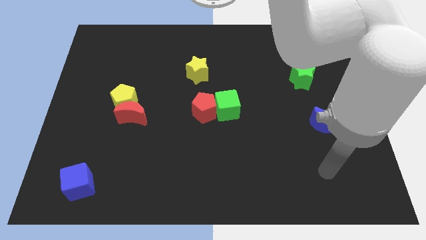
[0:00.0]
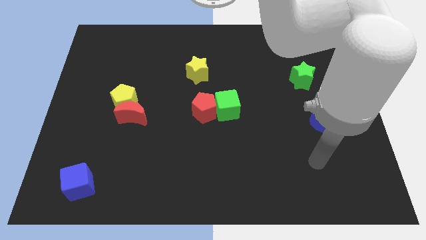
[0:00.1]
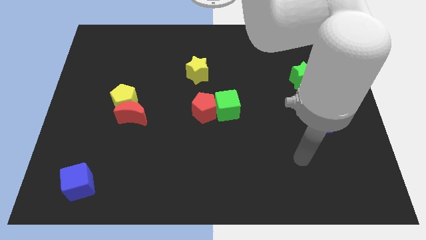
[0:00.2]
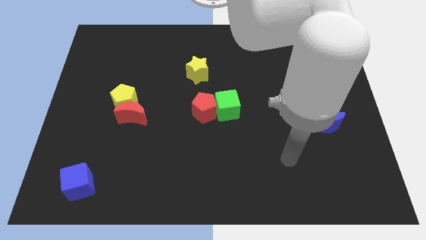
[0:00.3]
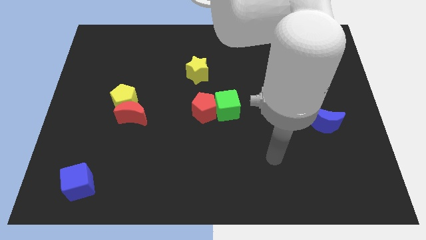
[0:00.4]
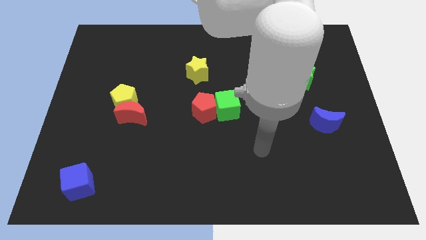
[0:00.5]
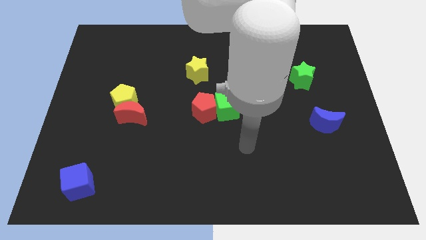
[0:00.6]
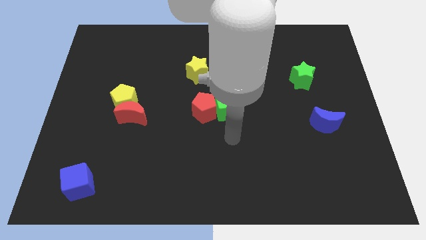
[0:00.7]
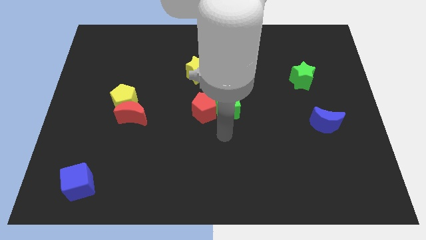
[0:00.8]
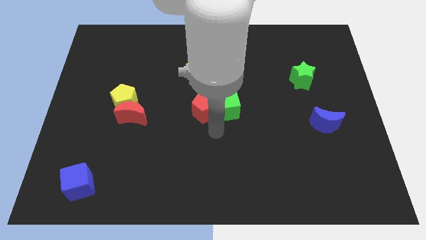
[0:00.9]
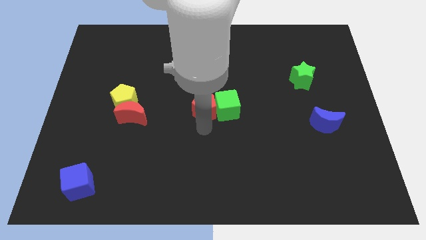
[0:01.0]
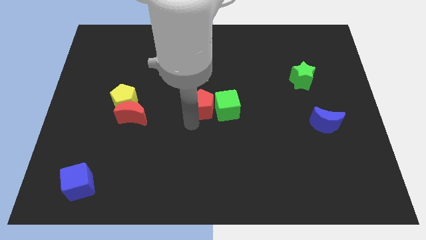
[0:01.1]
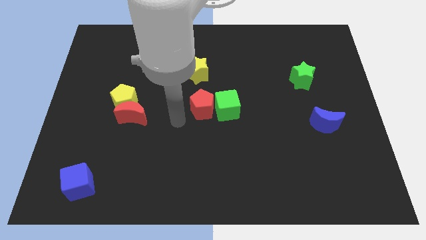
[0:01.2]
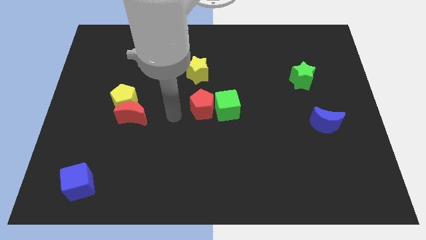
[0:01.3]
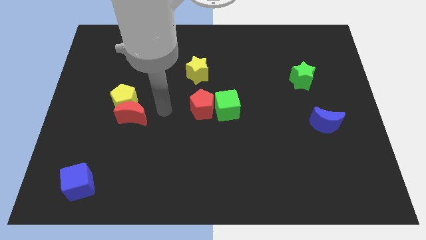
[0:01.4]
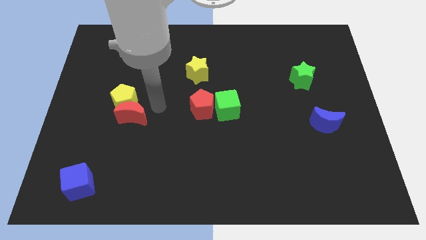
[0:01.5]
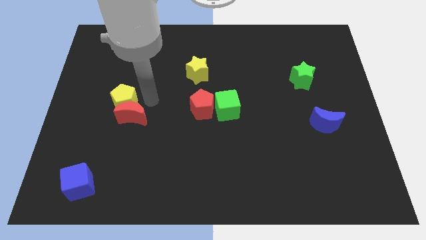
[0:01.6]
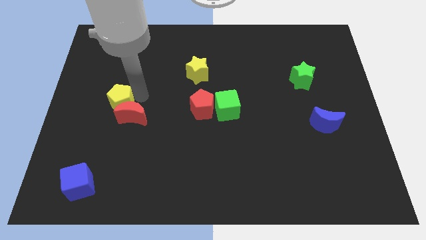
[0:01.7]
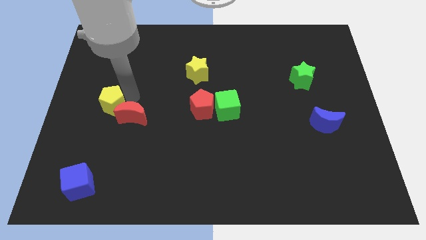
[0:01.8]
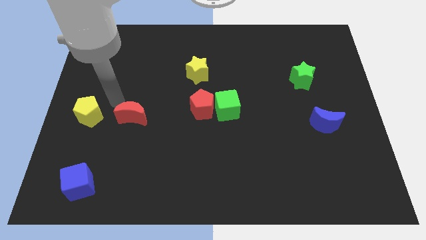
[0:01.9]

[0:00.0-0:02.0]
pull the red moon apart from the yellow pentagon

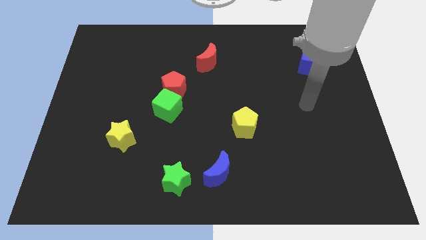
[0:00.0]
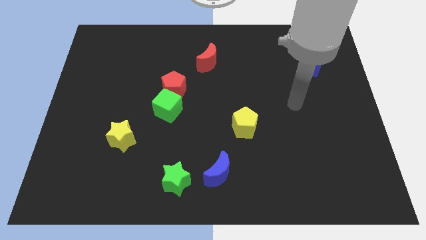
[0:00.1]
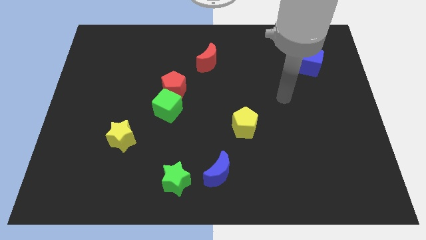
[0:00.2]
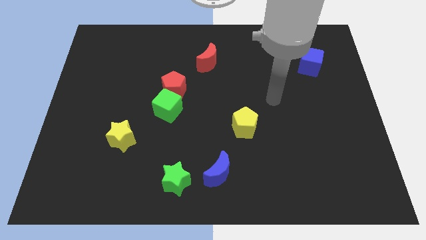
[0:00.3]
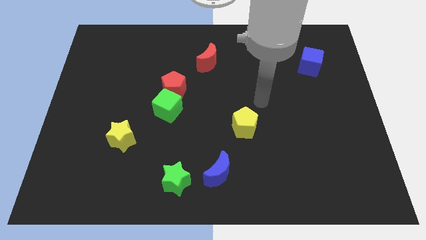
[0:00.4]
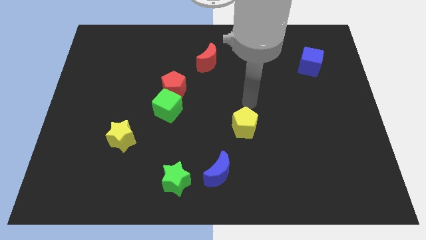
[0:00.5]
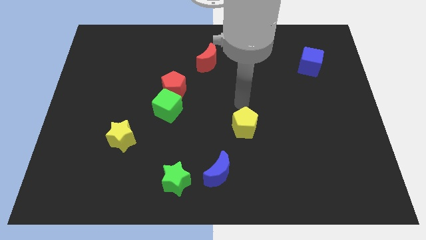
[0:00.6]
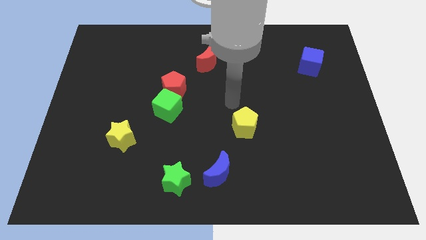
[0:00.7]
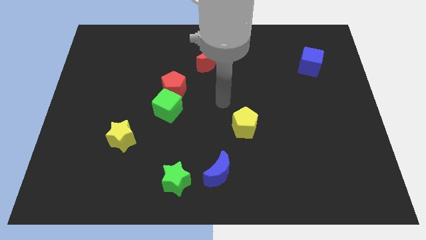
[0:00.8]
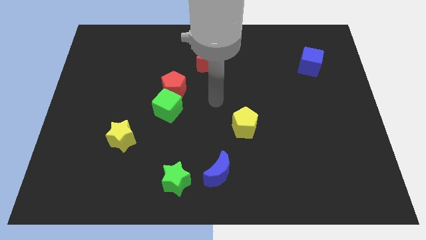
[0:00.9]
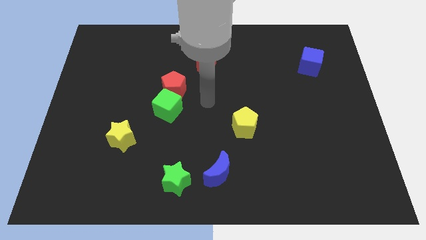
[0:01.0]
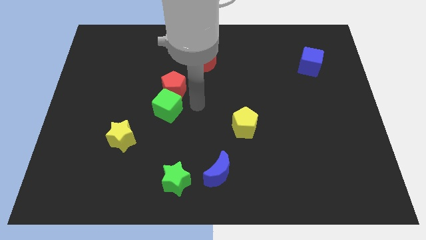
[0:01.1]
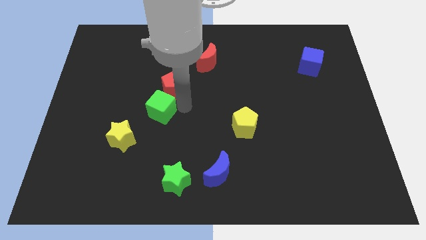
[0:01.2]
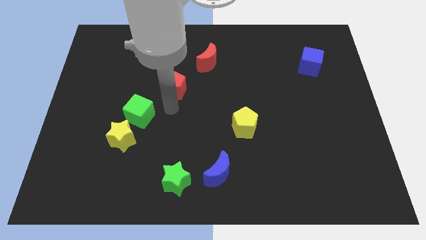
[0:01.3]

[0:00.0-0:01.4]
pull the red pentagon apart from the green cube

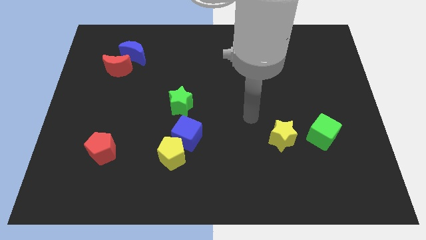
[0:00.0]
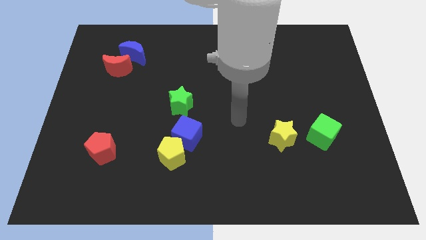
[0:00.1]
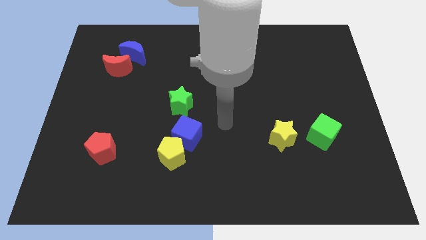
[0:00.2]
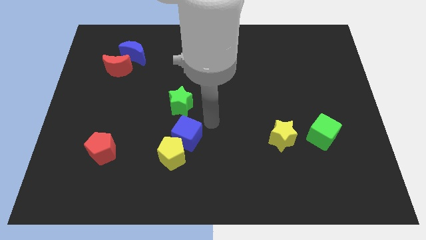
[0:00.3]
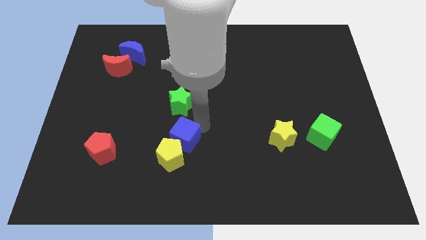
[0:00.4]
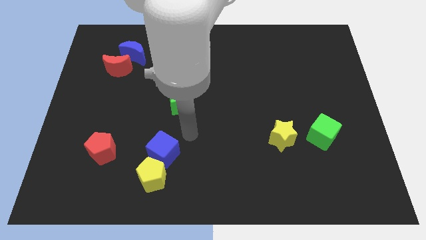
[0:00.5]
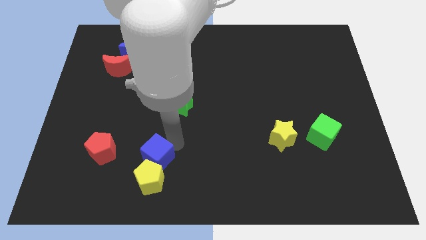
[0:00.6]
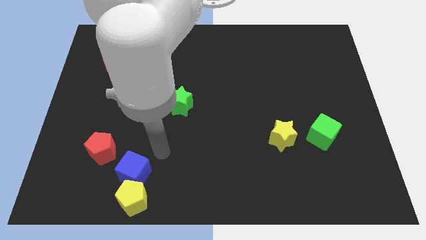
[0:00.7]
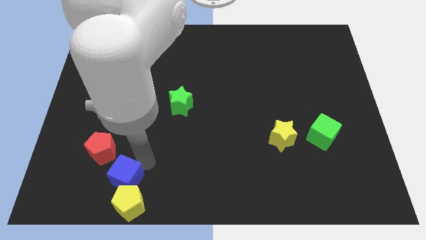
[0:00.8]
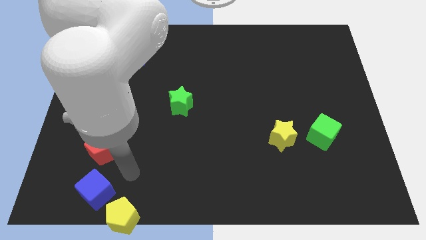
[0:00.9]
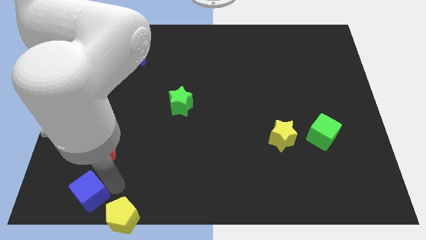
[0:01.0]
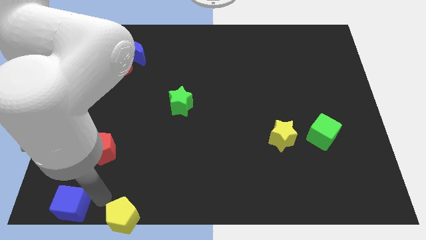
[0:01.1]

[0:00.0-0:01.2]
separate the yellow pentagon from the blue cube

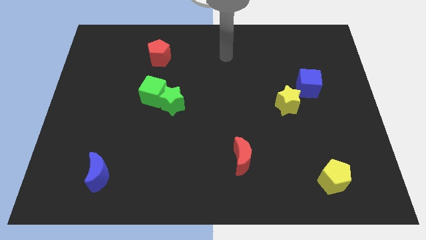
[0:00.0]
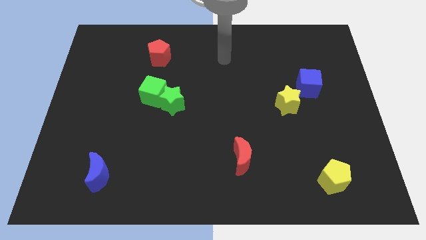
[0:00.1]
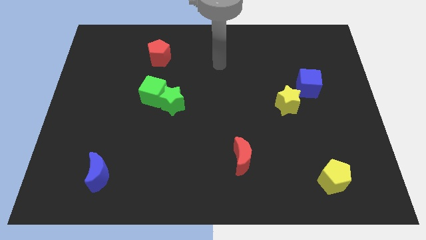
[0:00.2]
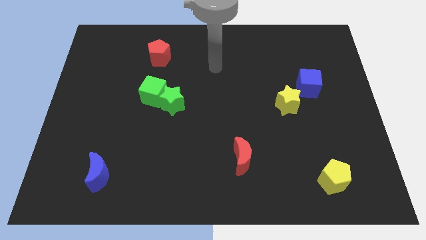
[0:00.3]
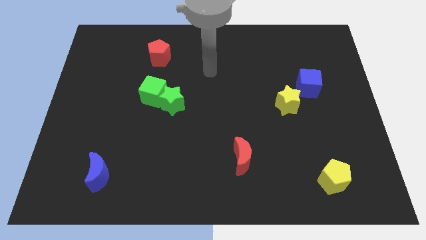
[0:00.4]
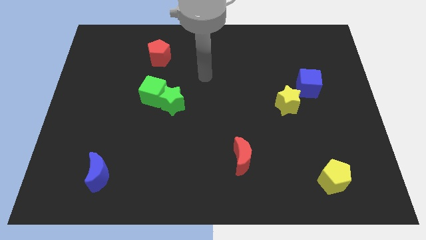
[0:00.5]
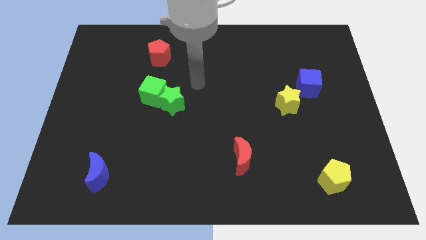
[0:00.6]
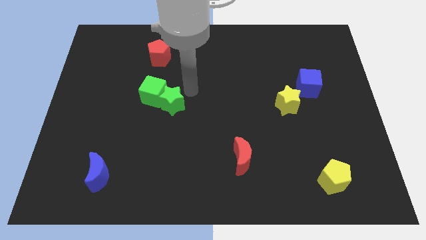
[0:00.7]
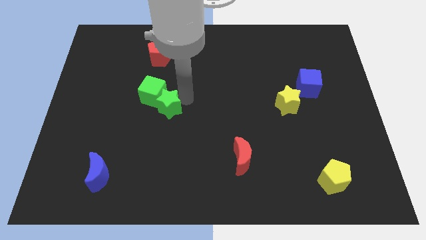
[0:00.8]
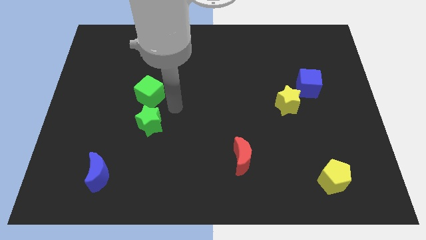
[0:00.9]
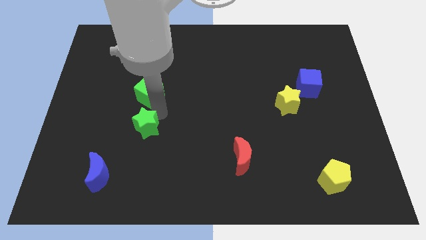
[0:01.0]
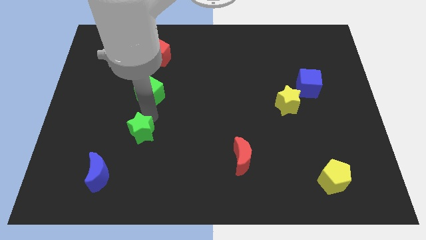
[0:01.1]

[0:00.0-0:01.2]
pull the green cube apart from the green star

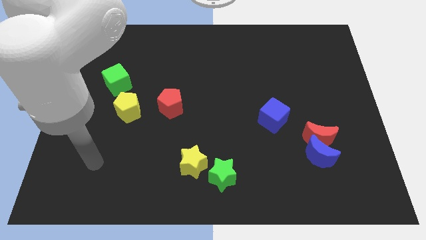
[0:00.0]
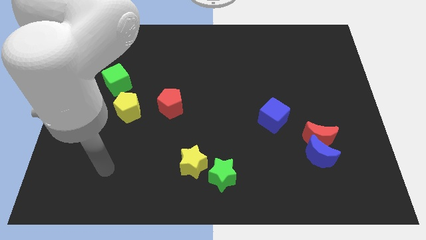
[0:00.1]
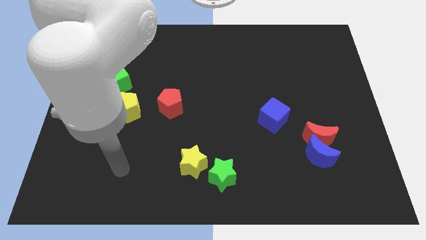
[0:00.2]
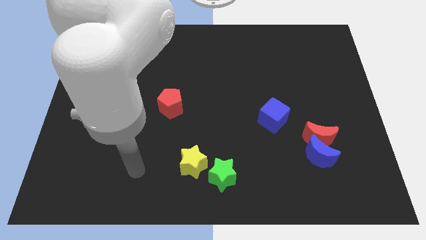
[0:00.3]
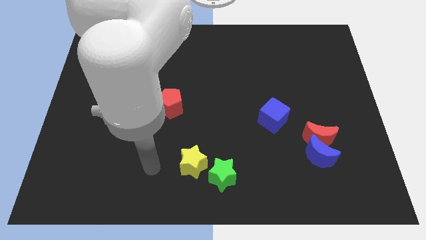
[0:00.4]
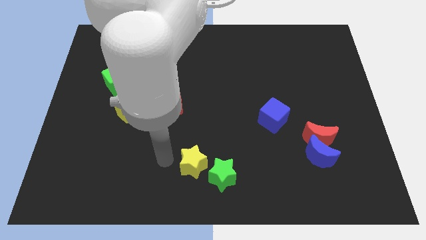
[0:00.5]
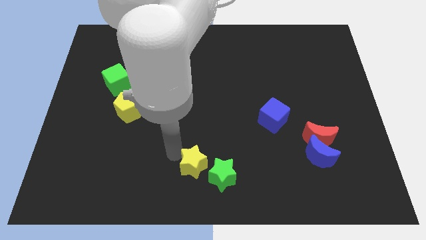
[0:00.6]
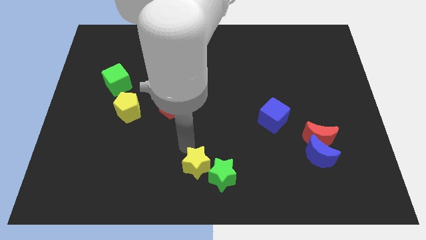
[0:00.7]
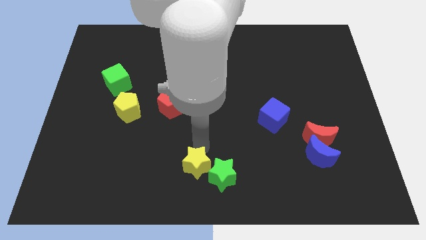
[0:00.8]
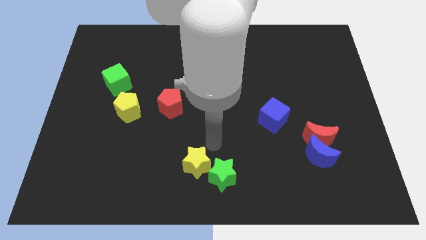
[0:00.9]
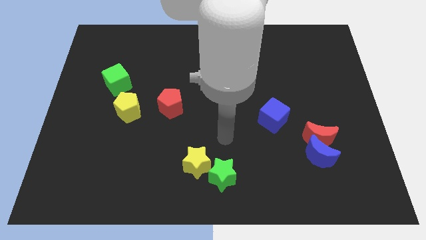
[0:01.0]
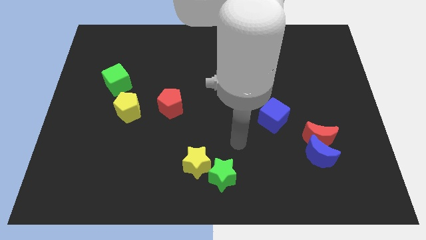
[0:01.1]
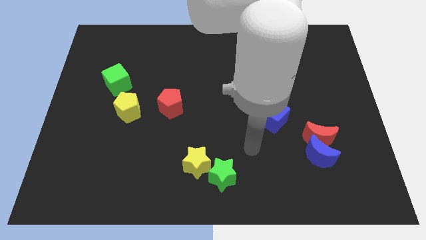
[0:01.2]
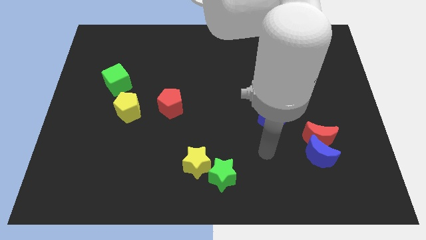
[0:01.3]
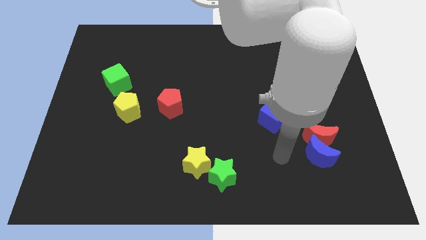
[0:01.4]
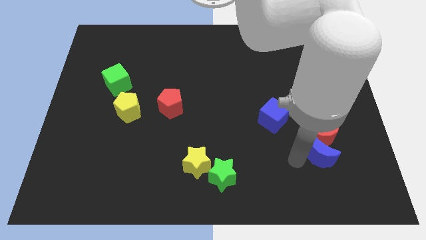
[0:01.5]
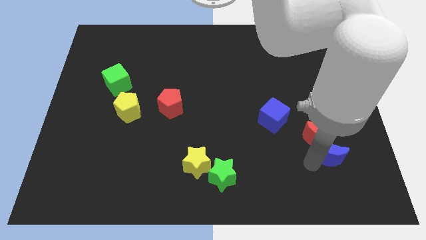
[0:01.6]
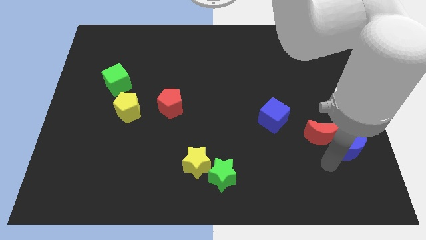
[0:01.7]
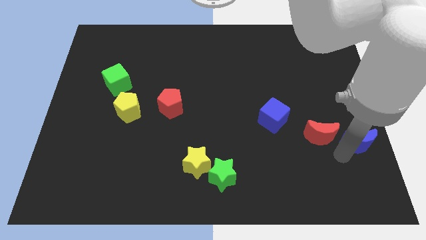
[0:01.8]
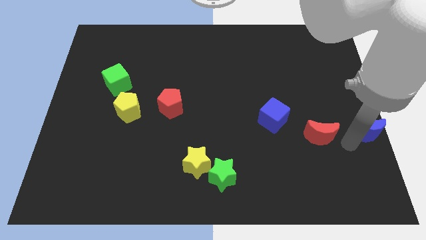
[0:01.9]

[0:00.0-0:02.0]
pull the red moon apart from the blue moon

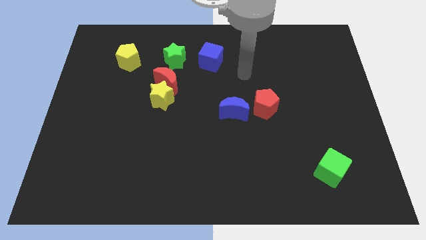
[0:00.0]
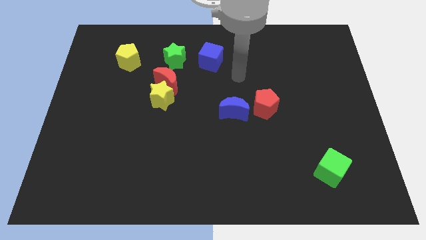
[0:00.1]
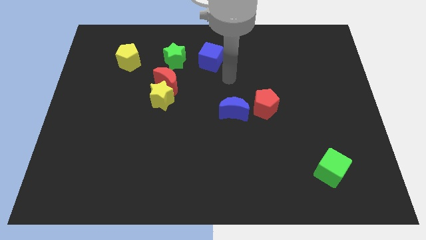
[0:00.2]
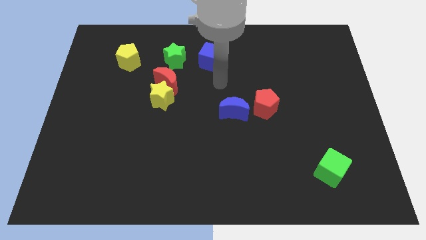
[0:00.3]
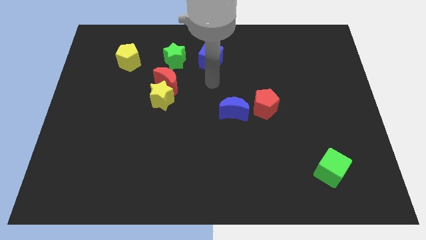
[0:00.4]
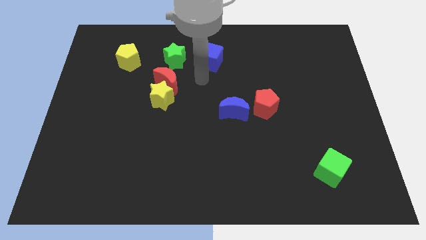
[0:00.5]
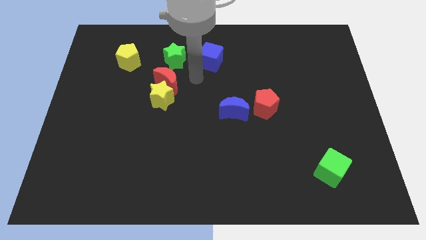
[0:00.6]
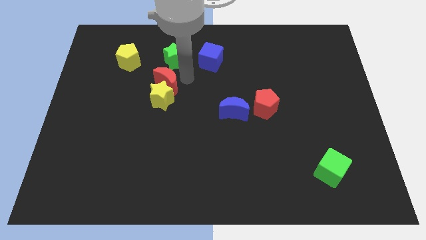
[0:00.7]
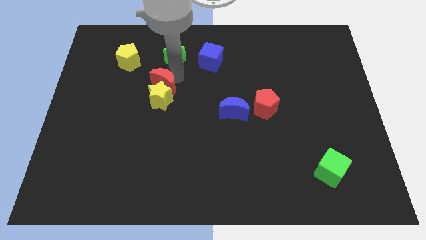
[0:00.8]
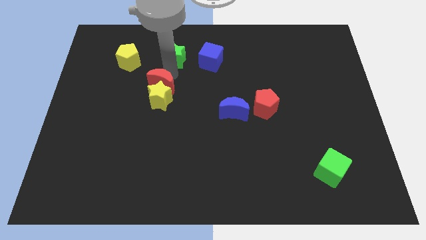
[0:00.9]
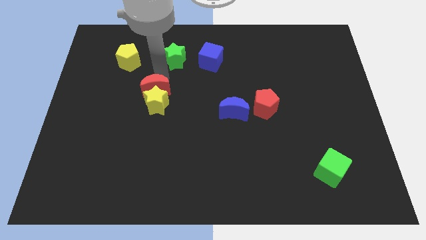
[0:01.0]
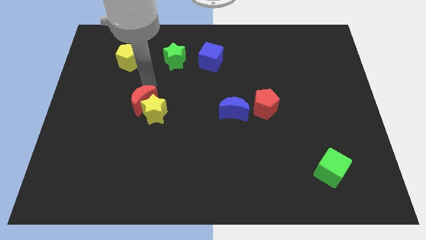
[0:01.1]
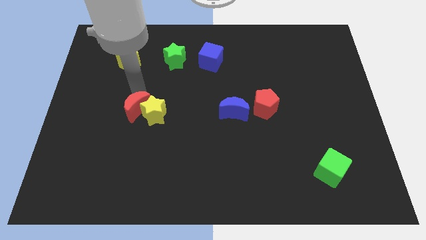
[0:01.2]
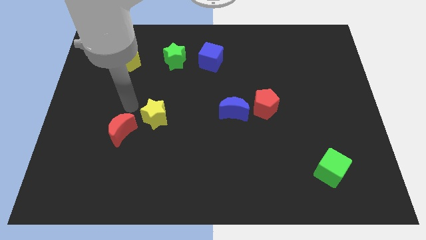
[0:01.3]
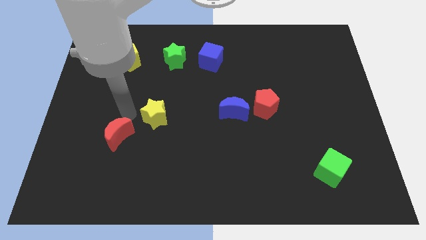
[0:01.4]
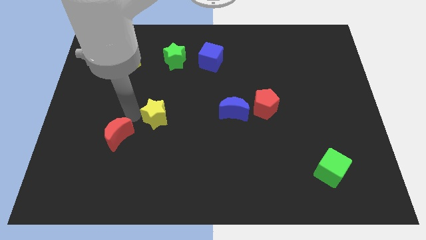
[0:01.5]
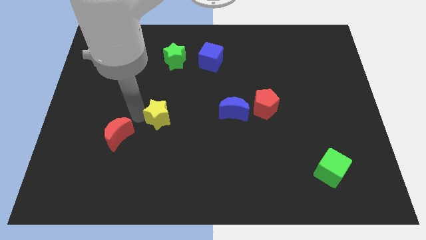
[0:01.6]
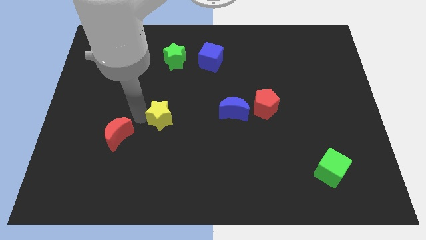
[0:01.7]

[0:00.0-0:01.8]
pull the yellow star apart from the red moon
